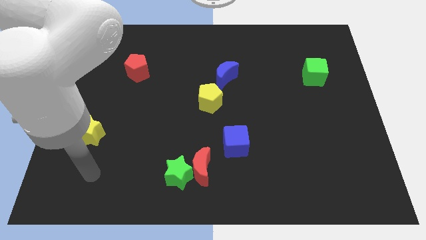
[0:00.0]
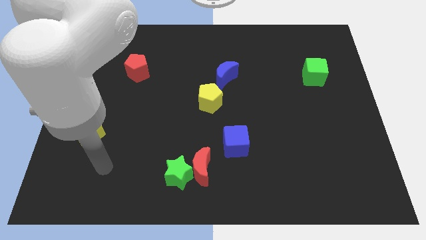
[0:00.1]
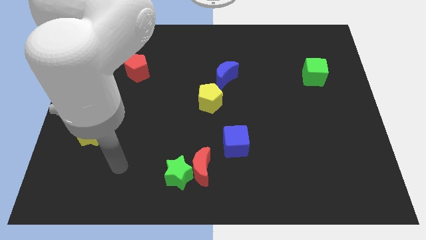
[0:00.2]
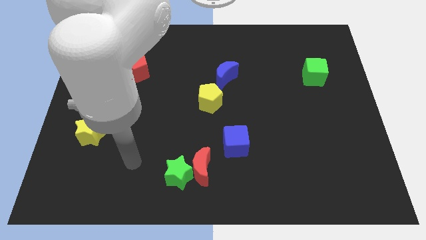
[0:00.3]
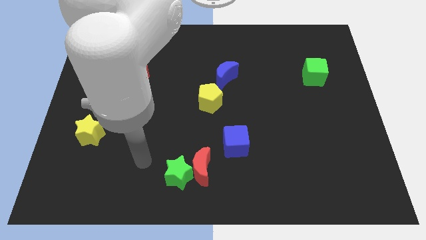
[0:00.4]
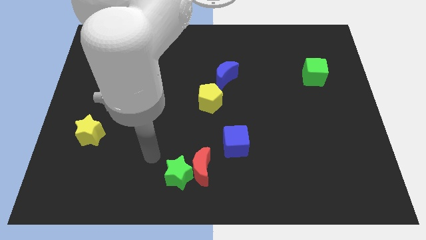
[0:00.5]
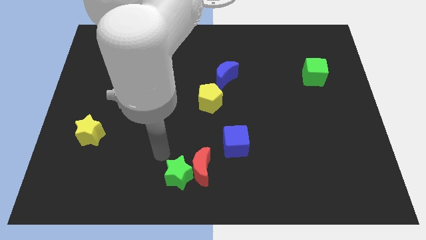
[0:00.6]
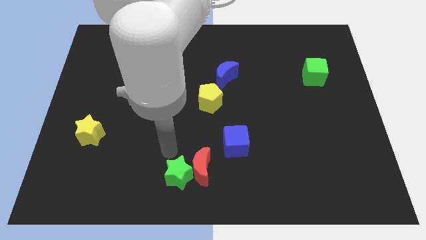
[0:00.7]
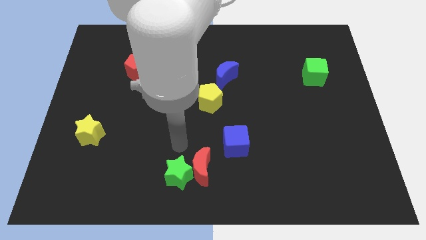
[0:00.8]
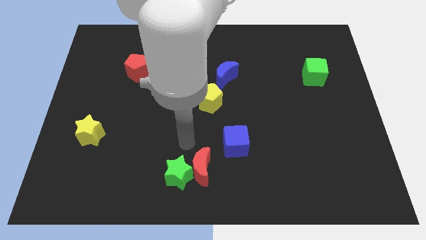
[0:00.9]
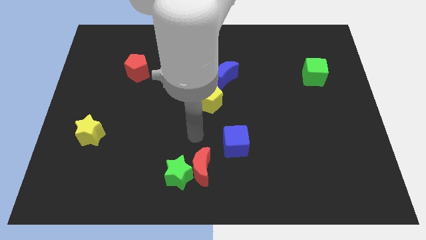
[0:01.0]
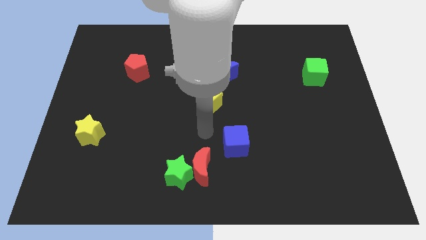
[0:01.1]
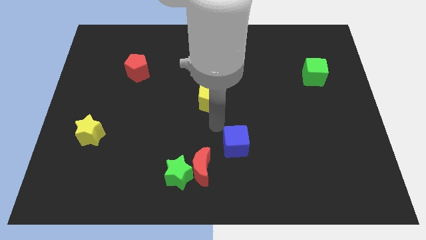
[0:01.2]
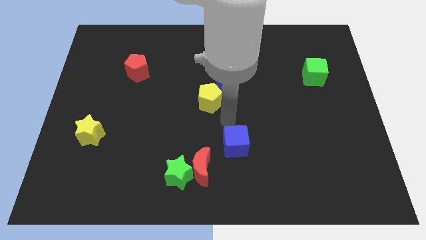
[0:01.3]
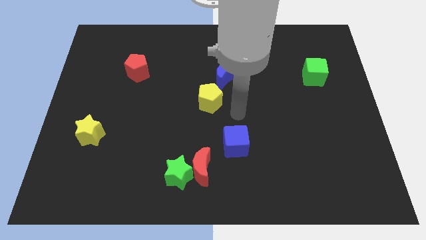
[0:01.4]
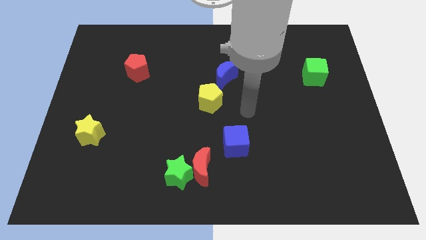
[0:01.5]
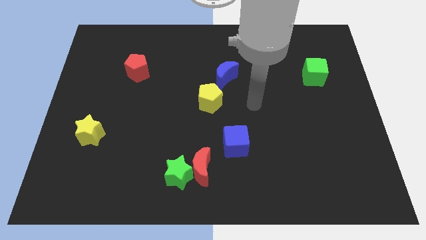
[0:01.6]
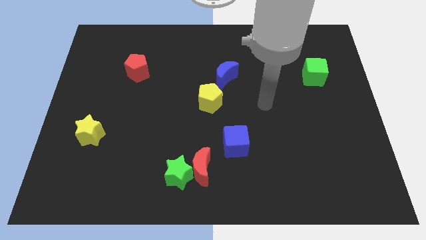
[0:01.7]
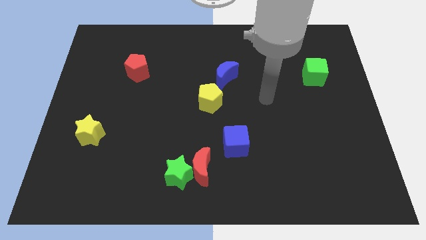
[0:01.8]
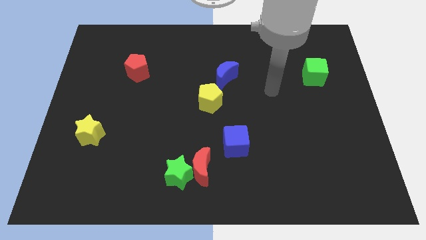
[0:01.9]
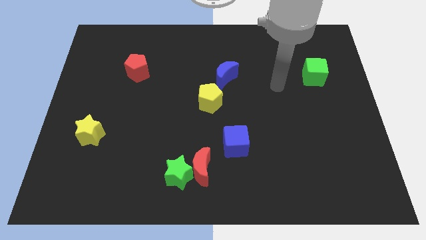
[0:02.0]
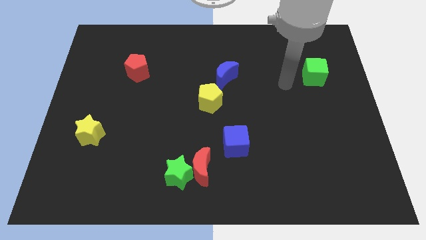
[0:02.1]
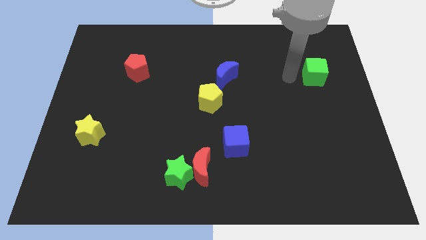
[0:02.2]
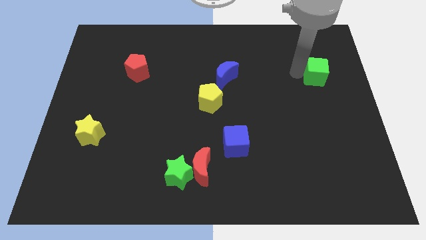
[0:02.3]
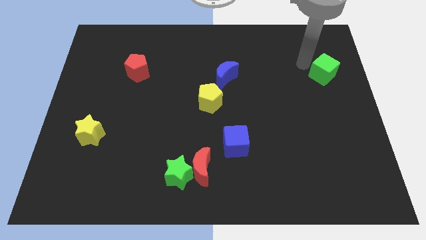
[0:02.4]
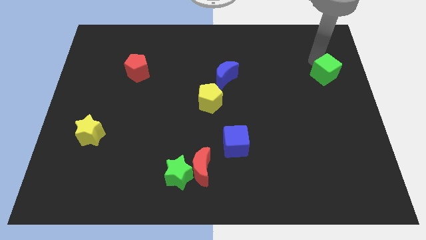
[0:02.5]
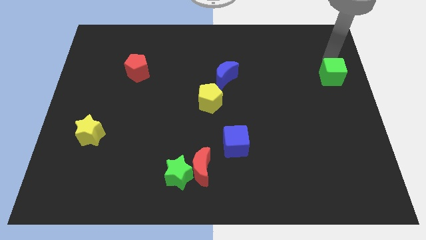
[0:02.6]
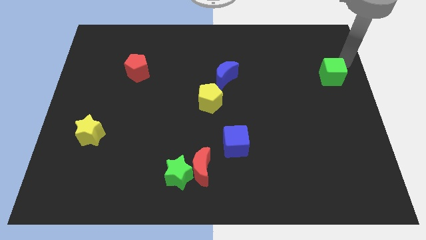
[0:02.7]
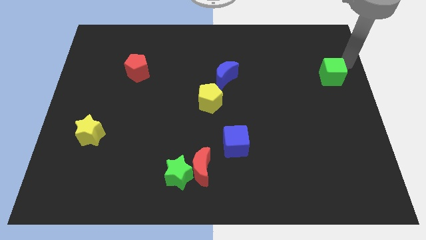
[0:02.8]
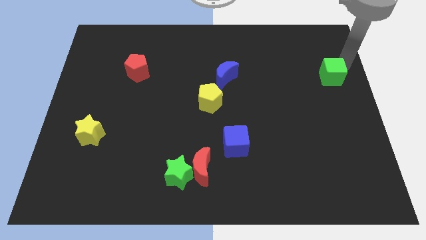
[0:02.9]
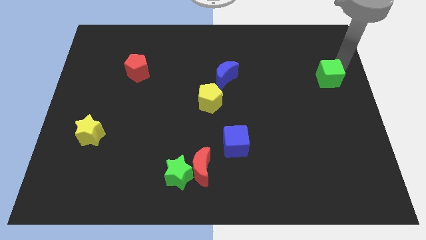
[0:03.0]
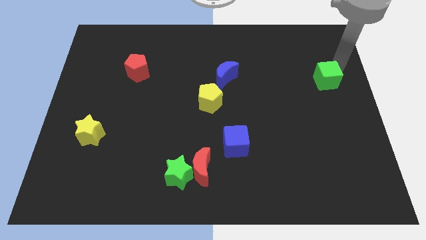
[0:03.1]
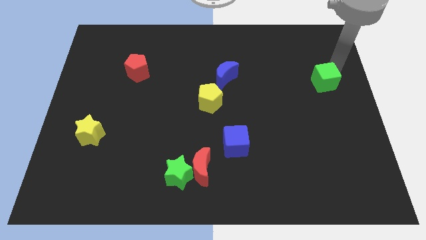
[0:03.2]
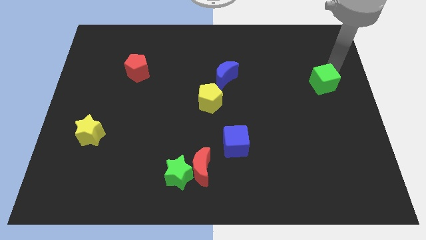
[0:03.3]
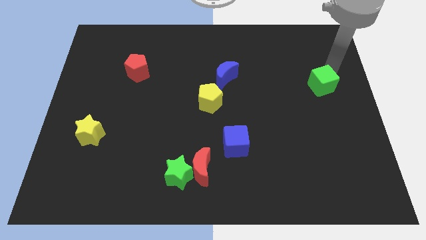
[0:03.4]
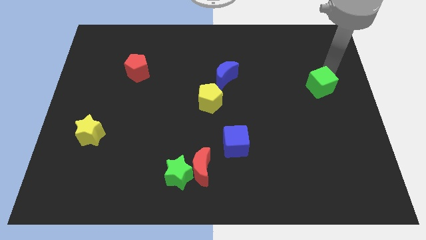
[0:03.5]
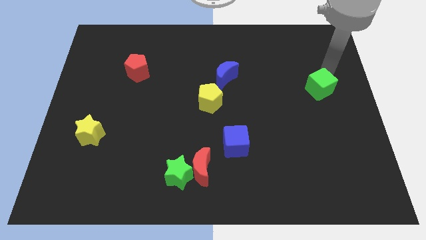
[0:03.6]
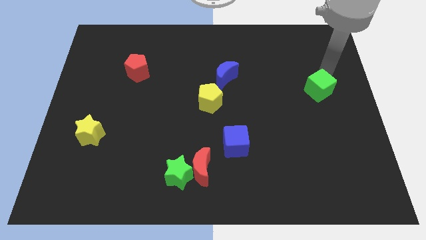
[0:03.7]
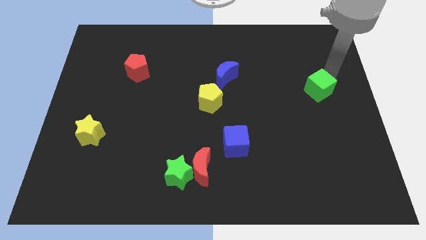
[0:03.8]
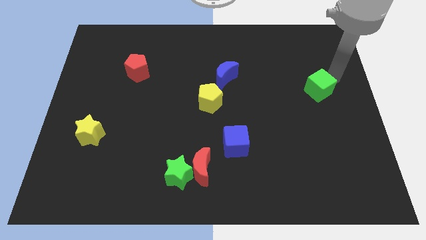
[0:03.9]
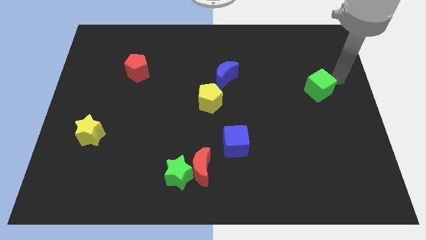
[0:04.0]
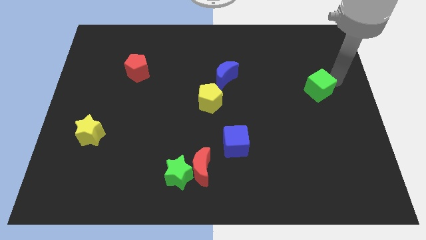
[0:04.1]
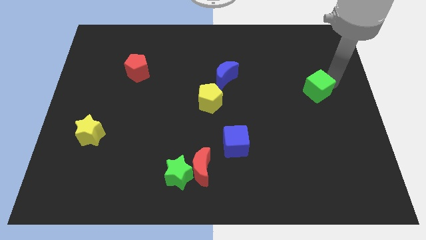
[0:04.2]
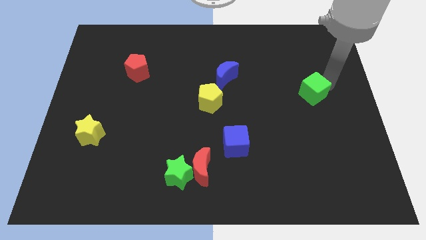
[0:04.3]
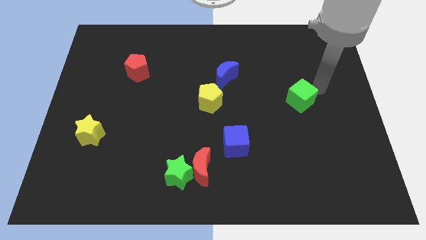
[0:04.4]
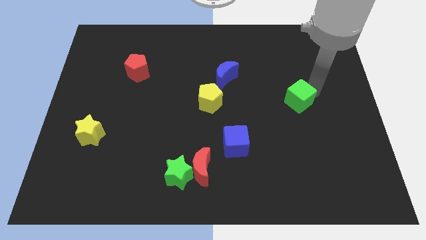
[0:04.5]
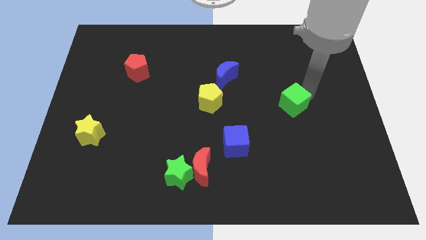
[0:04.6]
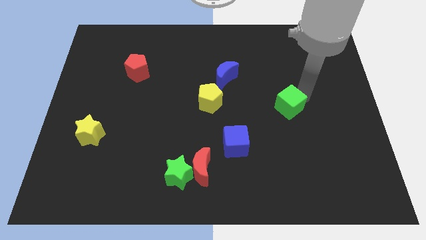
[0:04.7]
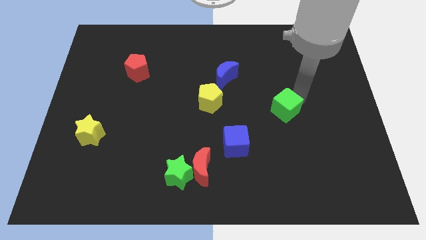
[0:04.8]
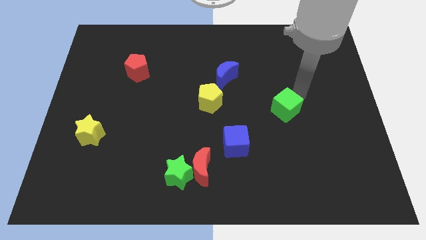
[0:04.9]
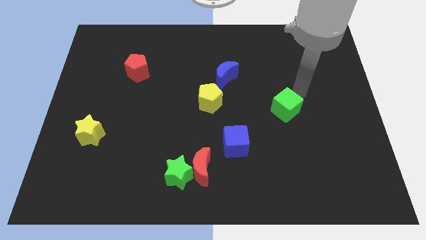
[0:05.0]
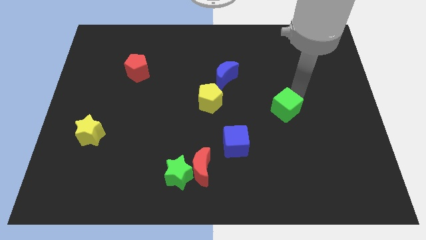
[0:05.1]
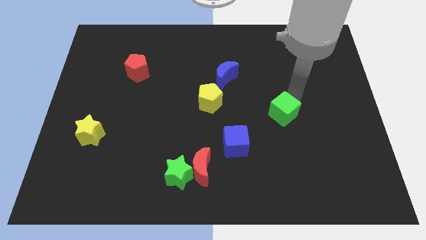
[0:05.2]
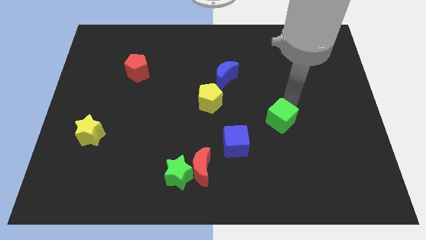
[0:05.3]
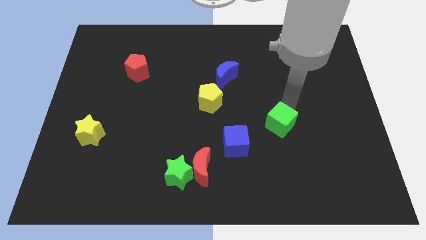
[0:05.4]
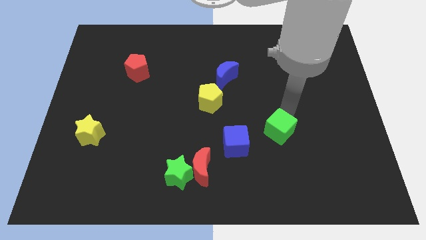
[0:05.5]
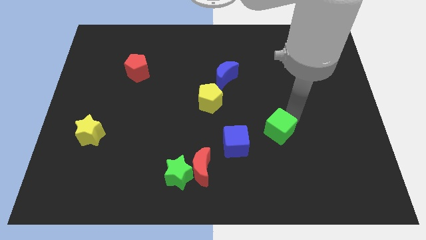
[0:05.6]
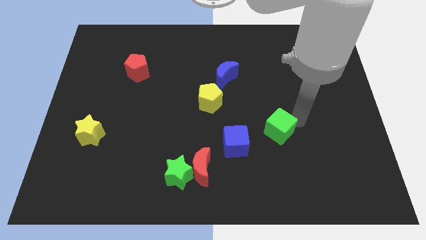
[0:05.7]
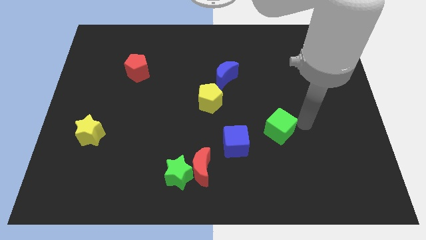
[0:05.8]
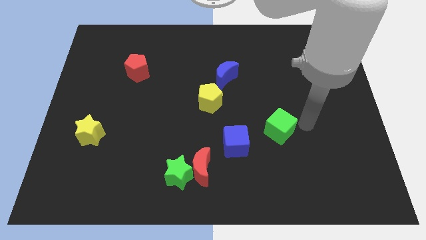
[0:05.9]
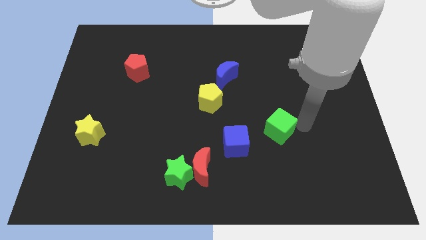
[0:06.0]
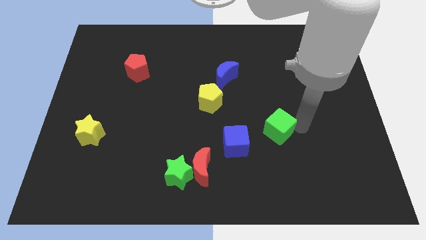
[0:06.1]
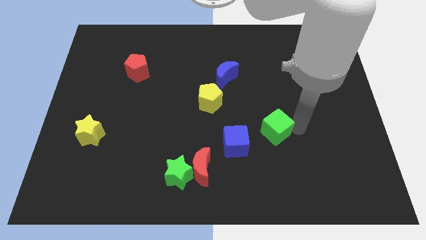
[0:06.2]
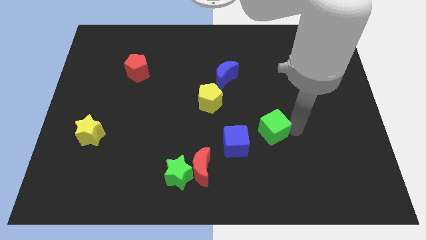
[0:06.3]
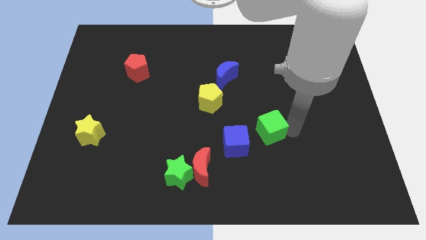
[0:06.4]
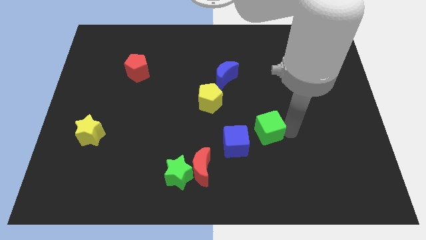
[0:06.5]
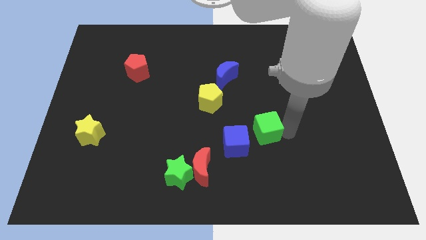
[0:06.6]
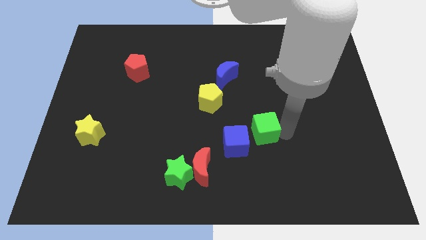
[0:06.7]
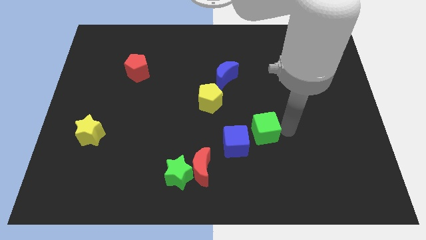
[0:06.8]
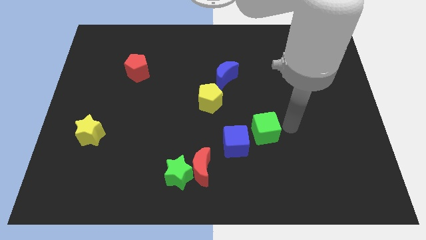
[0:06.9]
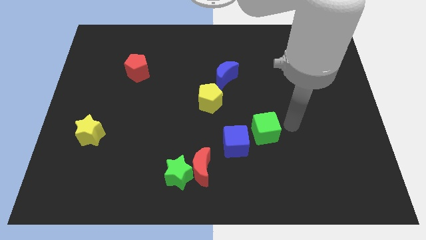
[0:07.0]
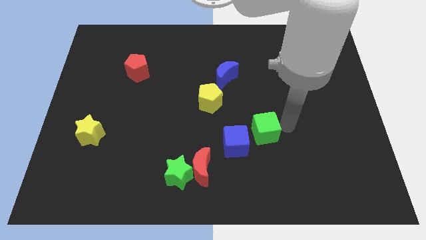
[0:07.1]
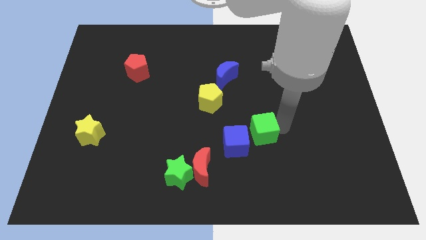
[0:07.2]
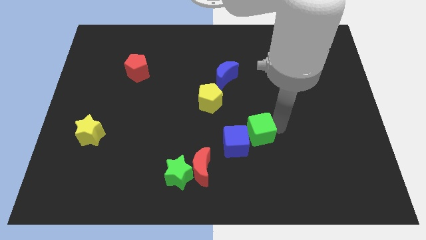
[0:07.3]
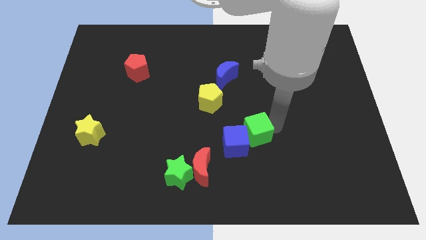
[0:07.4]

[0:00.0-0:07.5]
slide the green cube next to the blue cube
